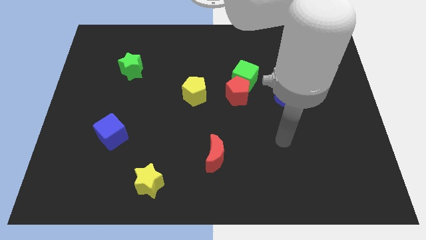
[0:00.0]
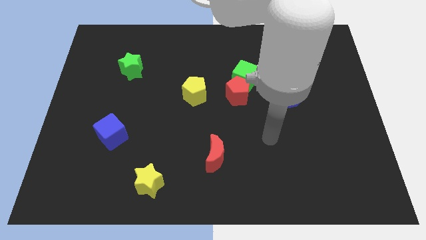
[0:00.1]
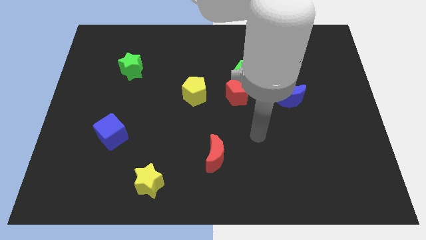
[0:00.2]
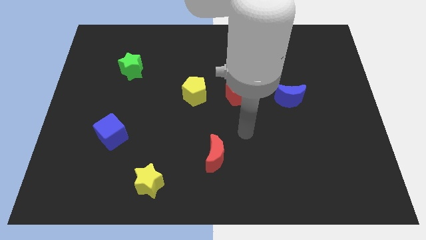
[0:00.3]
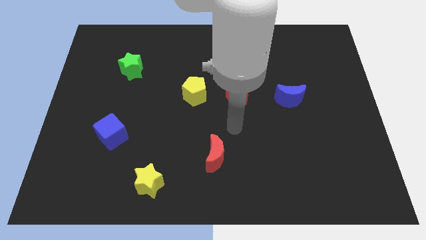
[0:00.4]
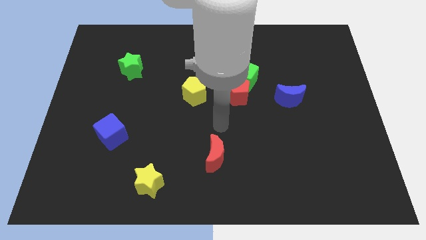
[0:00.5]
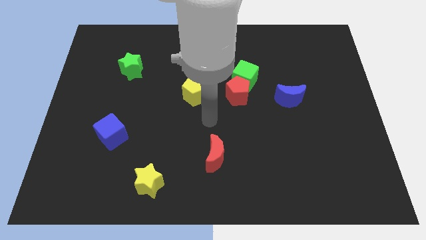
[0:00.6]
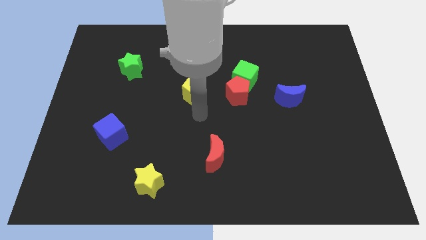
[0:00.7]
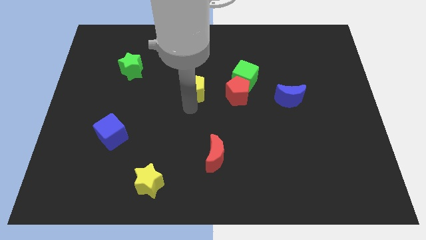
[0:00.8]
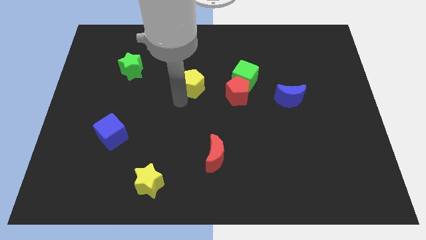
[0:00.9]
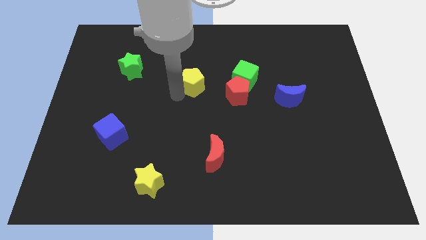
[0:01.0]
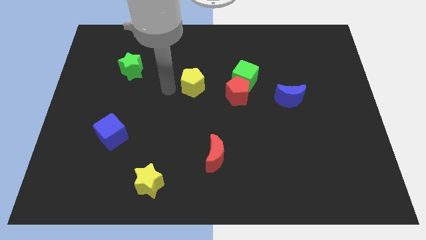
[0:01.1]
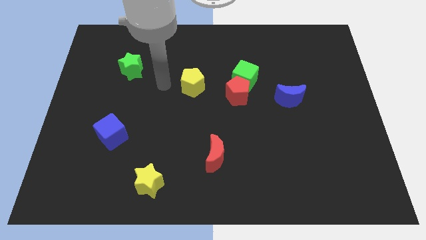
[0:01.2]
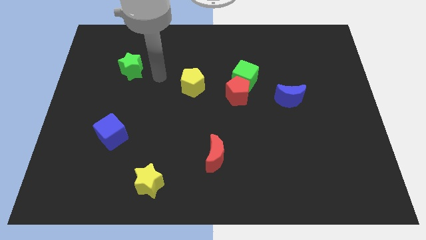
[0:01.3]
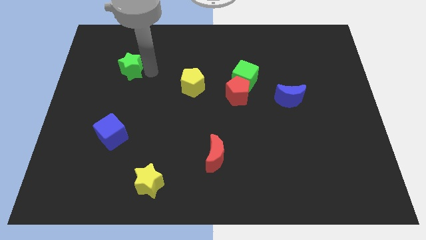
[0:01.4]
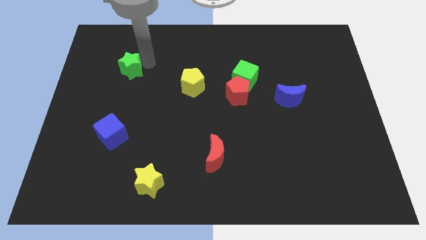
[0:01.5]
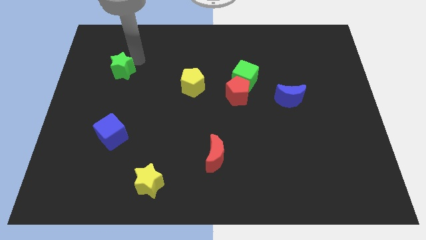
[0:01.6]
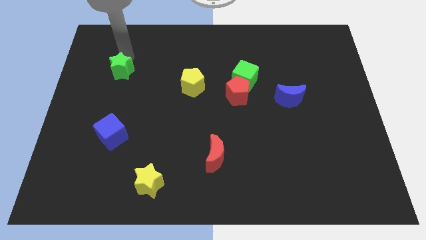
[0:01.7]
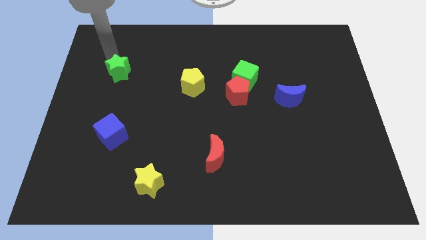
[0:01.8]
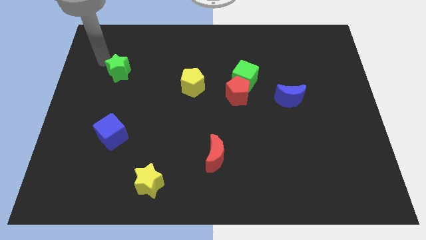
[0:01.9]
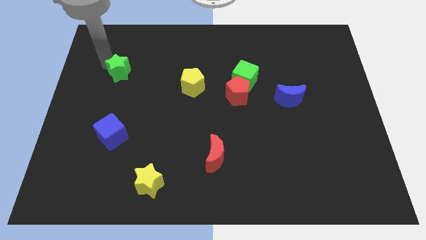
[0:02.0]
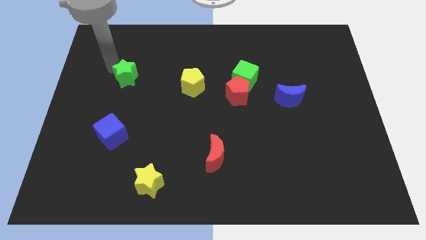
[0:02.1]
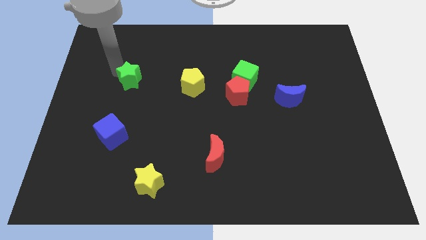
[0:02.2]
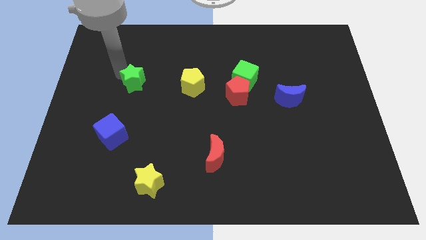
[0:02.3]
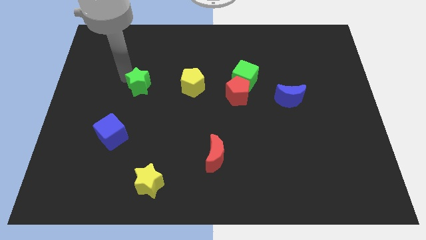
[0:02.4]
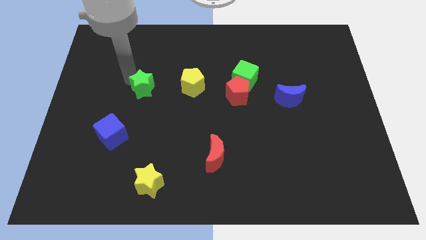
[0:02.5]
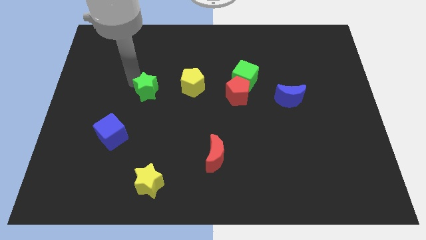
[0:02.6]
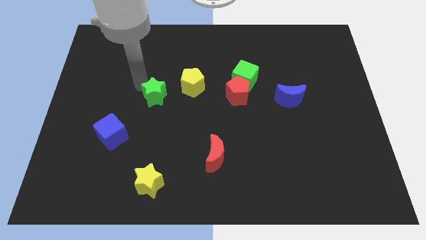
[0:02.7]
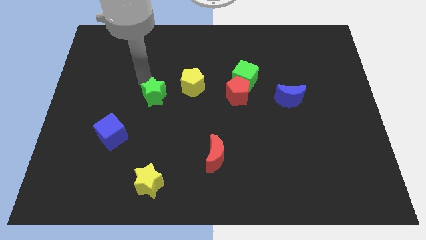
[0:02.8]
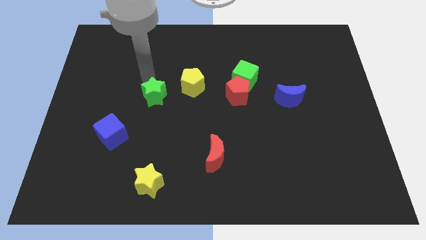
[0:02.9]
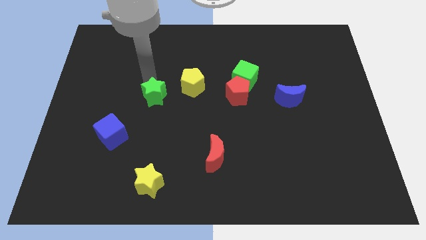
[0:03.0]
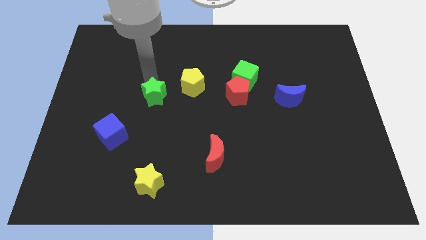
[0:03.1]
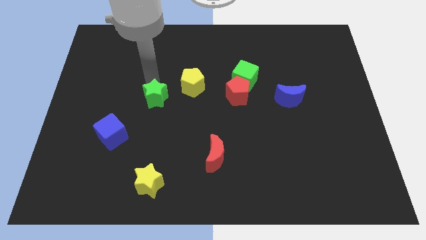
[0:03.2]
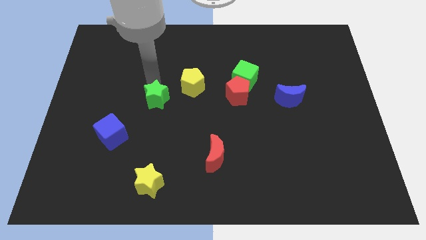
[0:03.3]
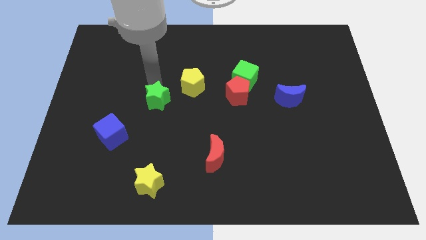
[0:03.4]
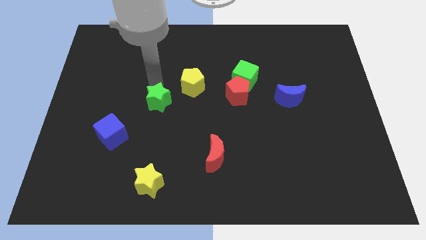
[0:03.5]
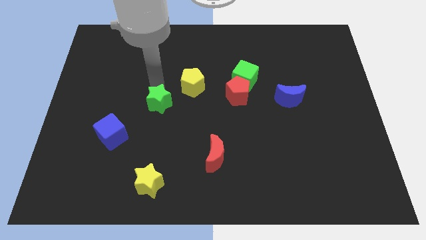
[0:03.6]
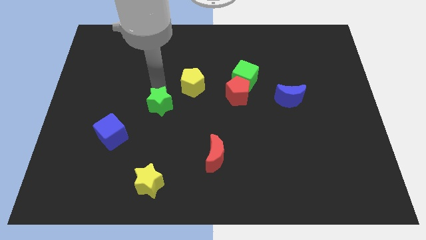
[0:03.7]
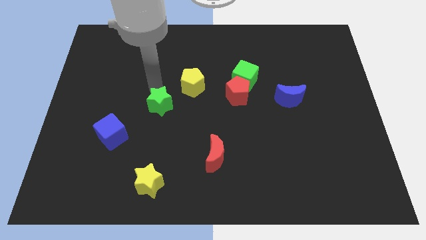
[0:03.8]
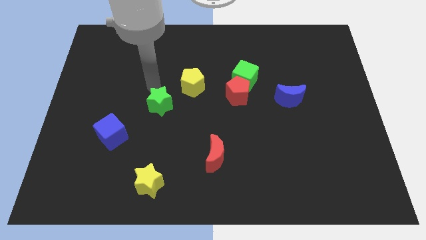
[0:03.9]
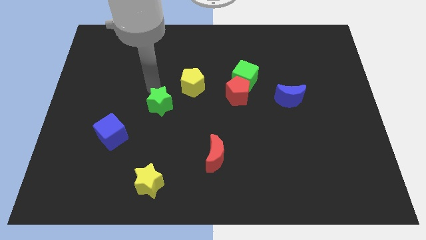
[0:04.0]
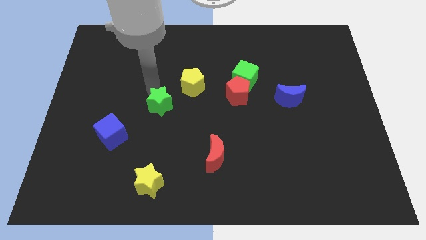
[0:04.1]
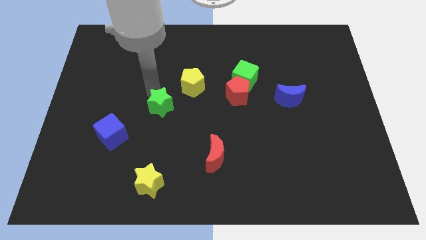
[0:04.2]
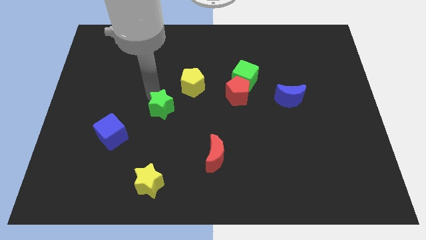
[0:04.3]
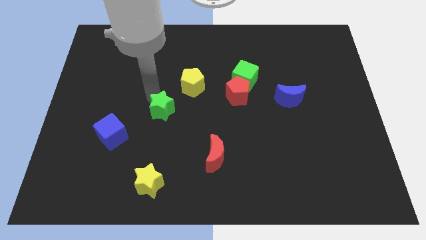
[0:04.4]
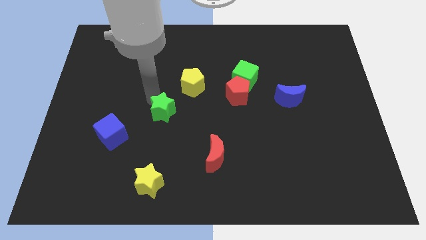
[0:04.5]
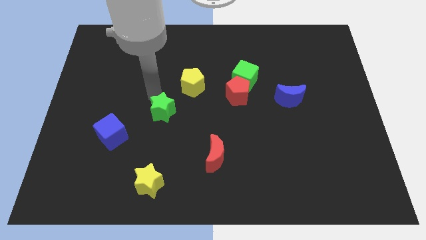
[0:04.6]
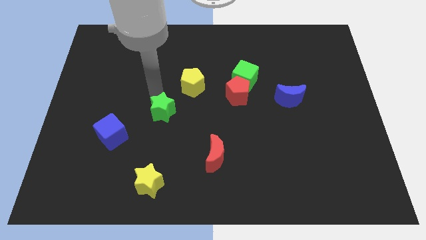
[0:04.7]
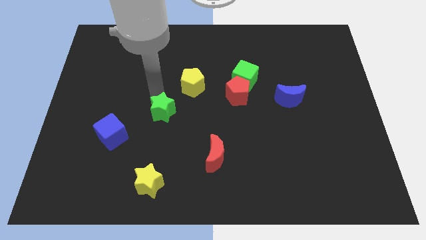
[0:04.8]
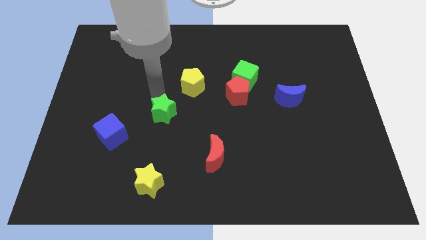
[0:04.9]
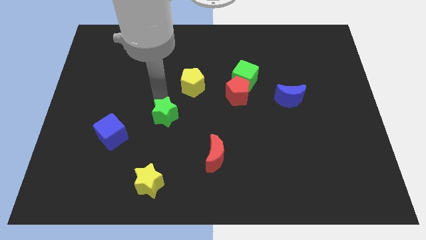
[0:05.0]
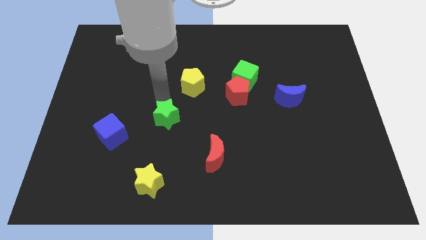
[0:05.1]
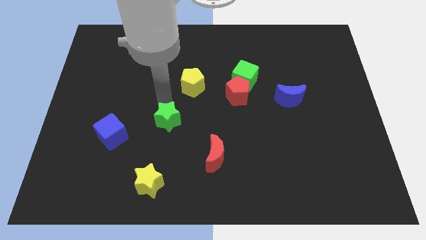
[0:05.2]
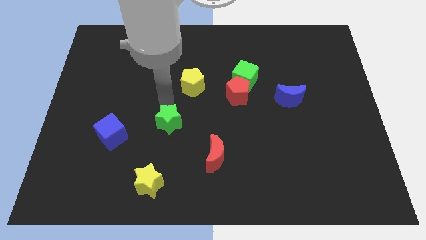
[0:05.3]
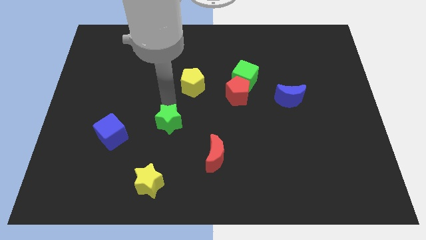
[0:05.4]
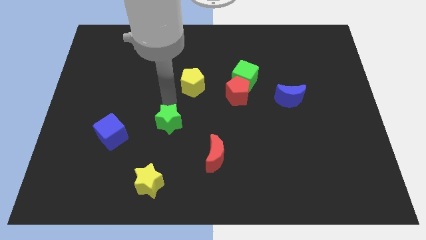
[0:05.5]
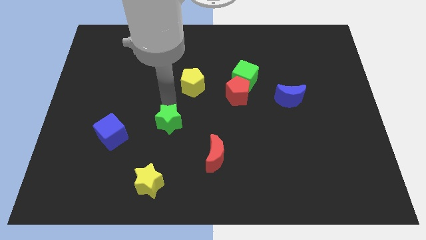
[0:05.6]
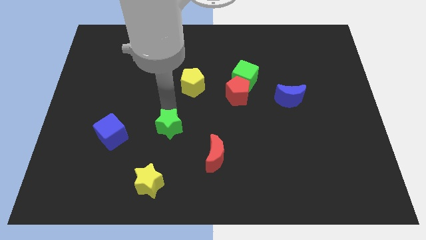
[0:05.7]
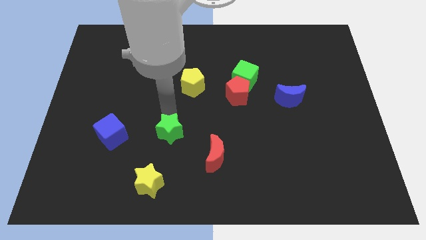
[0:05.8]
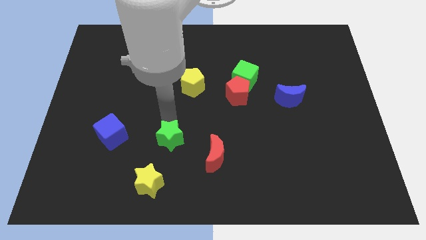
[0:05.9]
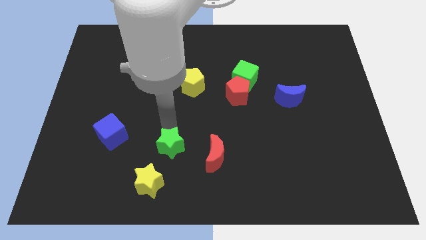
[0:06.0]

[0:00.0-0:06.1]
slide the green star to the top right of the yellow star

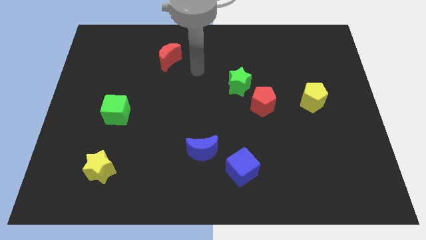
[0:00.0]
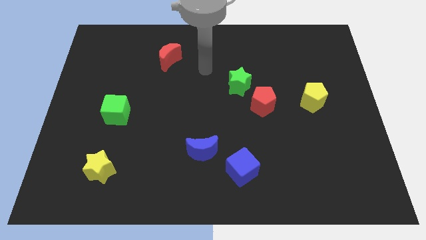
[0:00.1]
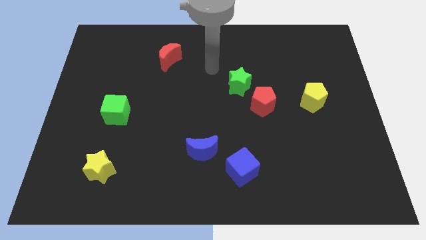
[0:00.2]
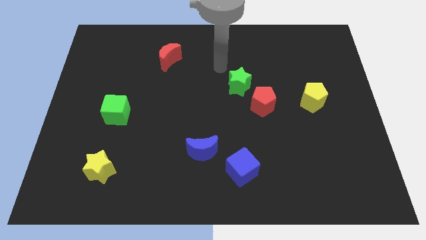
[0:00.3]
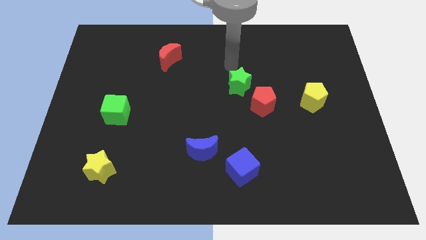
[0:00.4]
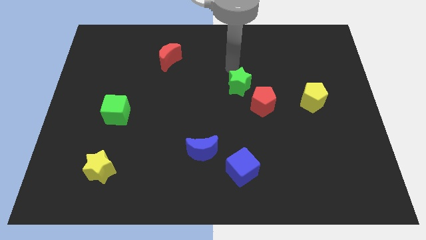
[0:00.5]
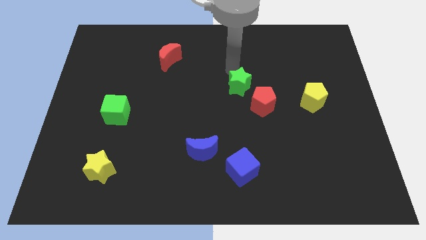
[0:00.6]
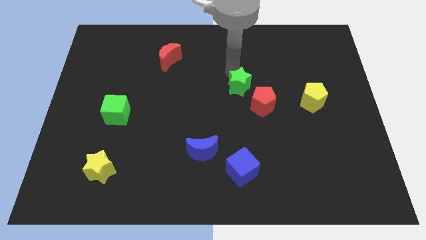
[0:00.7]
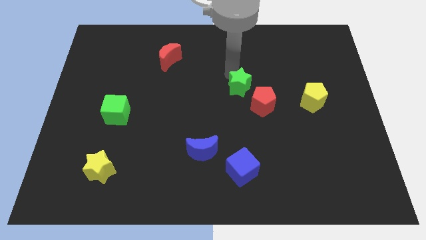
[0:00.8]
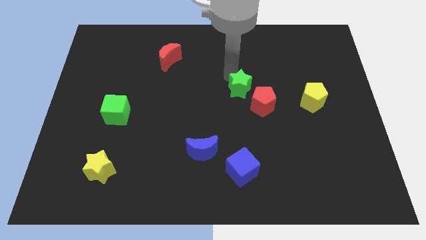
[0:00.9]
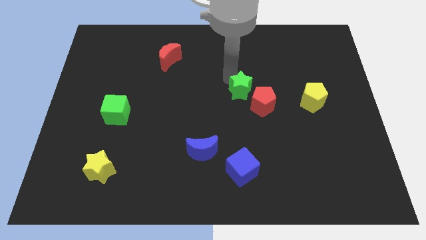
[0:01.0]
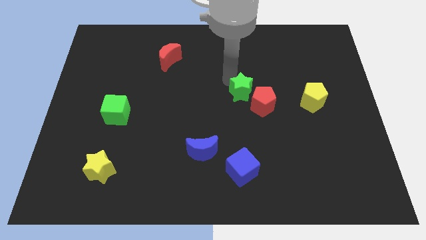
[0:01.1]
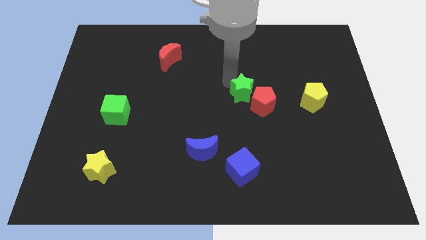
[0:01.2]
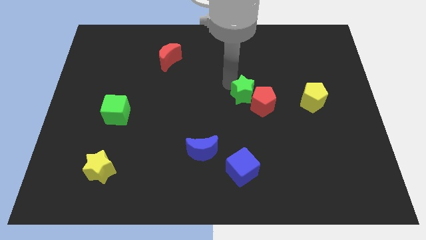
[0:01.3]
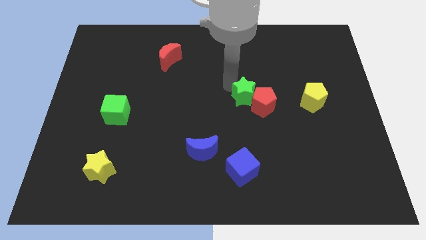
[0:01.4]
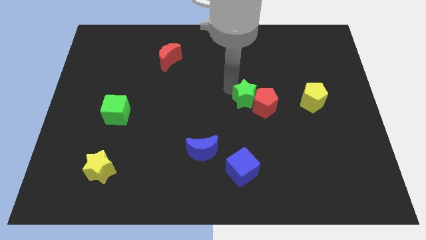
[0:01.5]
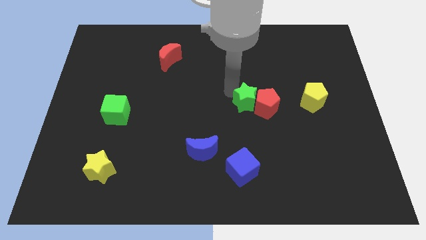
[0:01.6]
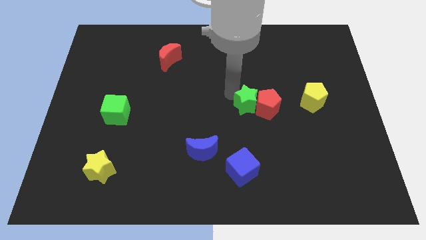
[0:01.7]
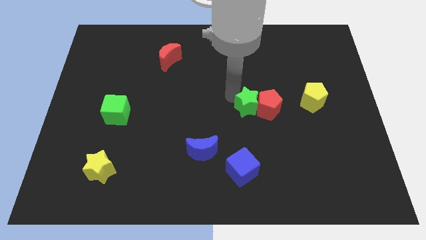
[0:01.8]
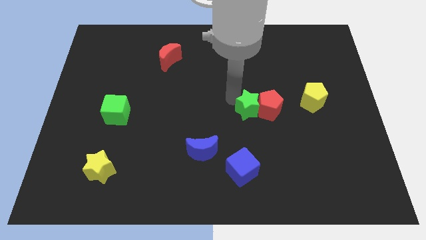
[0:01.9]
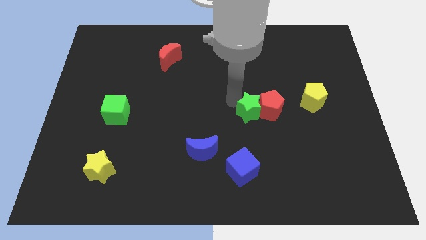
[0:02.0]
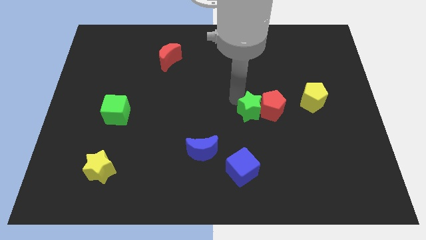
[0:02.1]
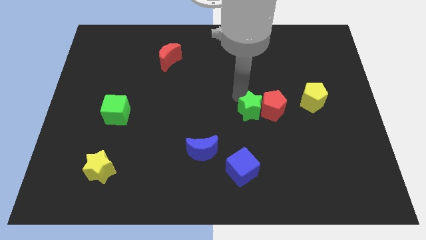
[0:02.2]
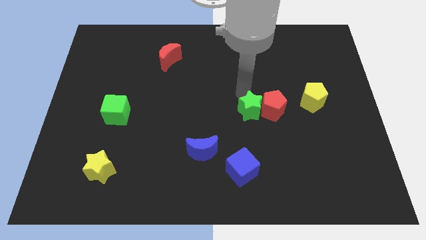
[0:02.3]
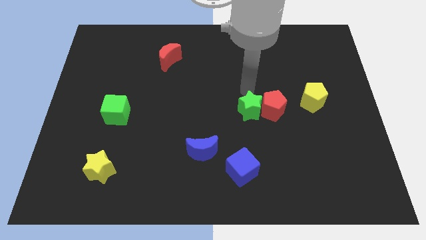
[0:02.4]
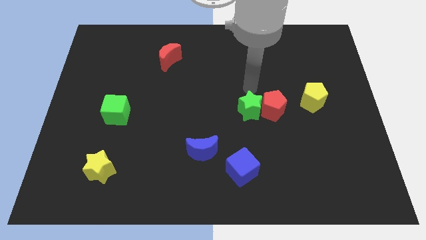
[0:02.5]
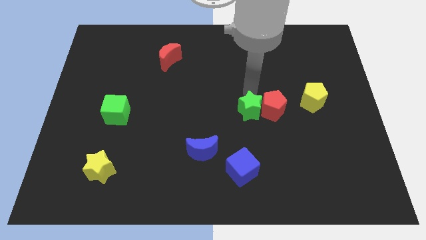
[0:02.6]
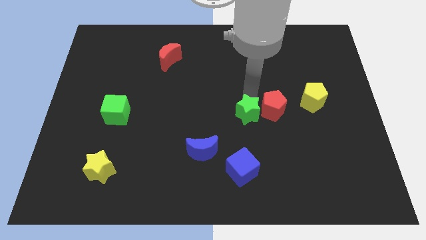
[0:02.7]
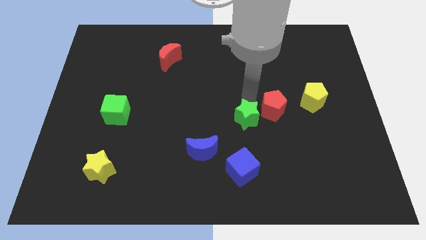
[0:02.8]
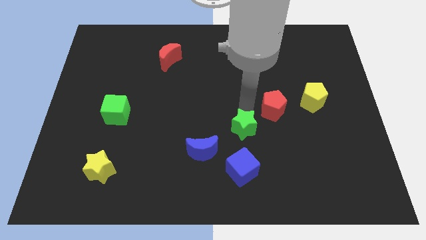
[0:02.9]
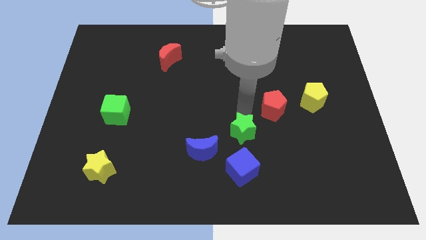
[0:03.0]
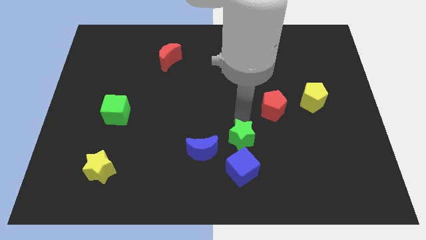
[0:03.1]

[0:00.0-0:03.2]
move the green star right of the blue moon
